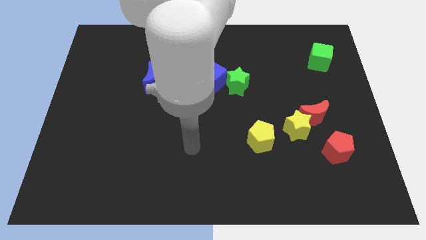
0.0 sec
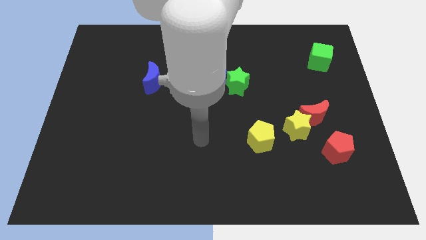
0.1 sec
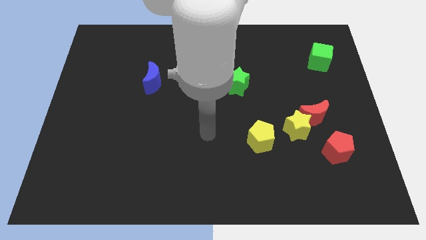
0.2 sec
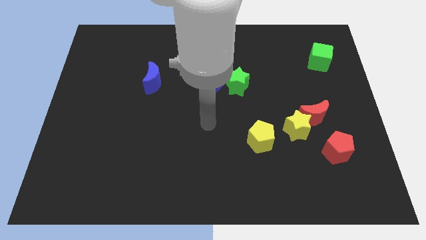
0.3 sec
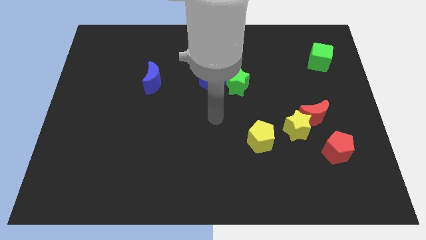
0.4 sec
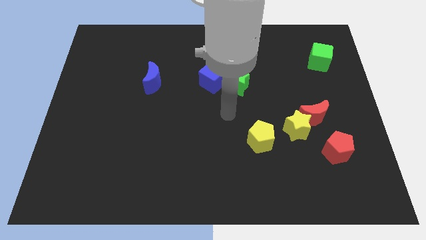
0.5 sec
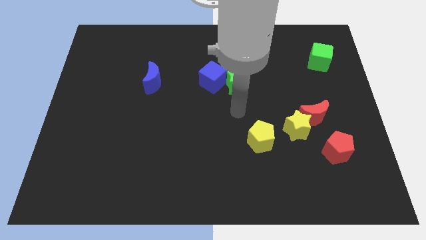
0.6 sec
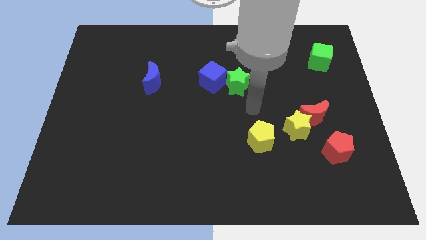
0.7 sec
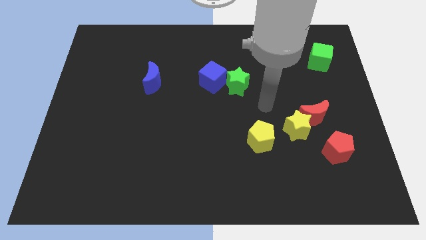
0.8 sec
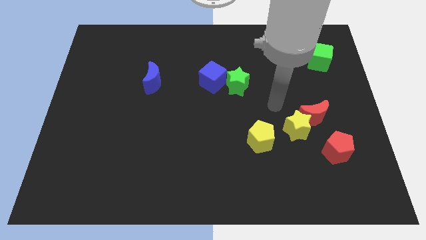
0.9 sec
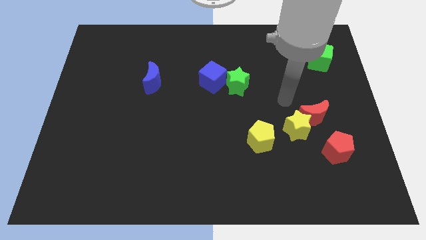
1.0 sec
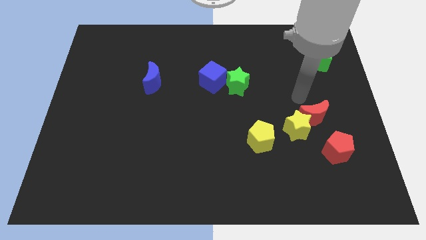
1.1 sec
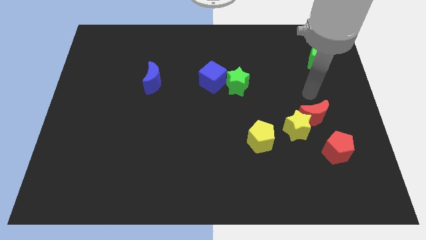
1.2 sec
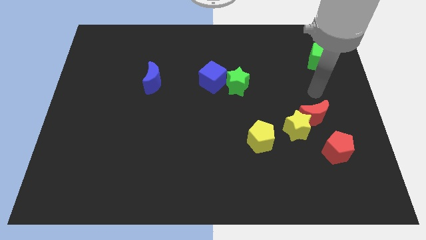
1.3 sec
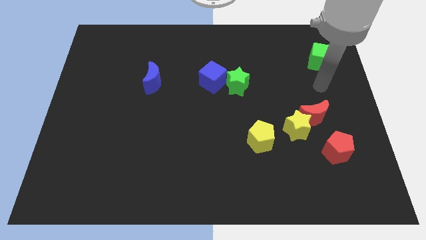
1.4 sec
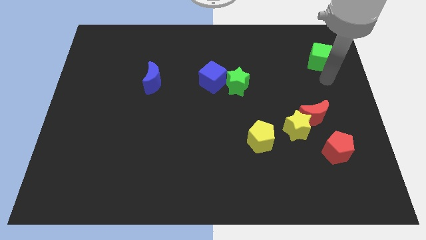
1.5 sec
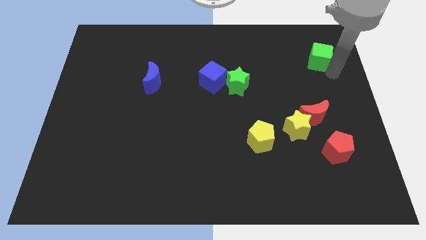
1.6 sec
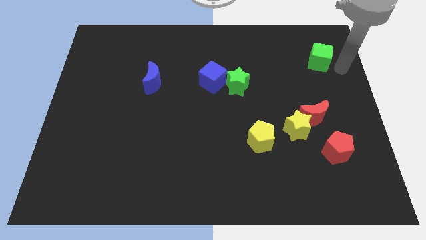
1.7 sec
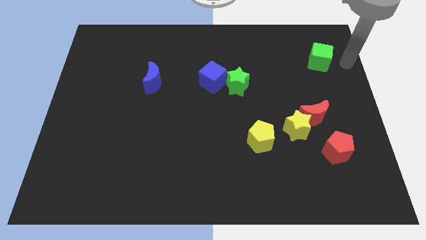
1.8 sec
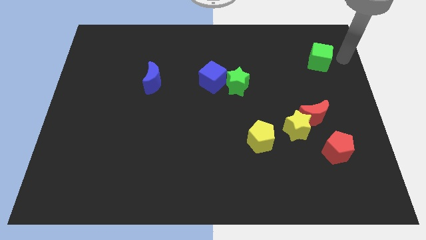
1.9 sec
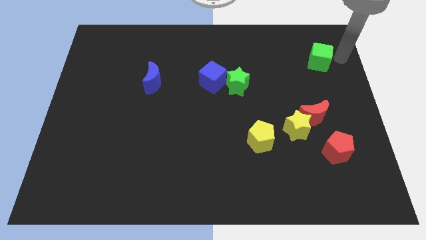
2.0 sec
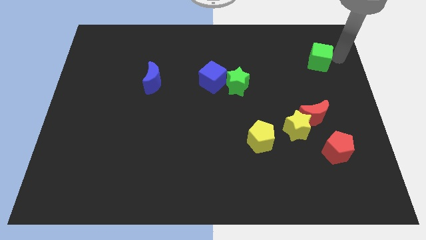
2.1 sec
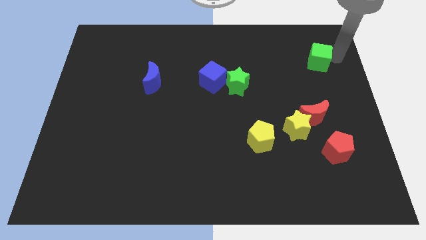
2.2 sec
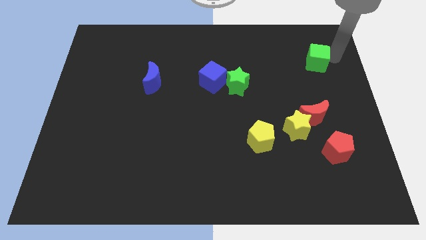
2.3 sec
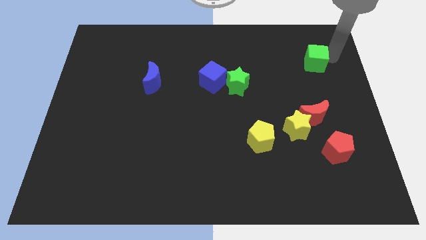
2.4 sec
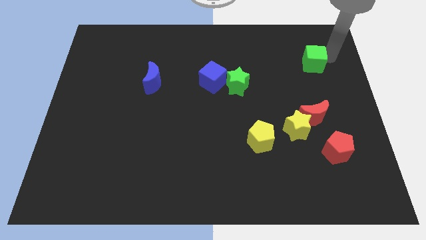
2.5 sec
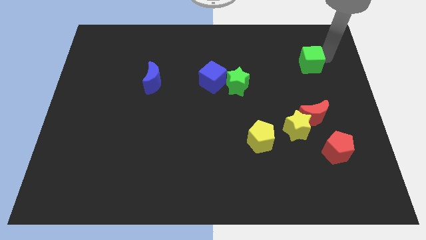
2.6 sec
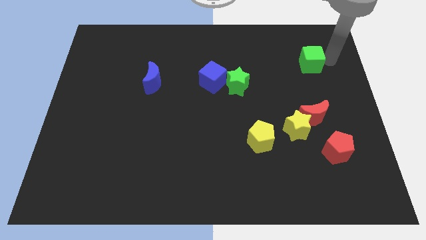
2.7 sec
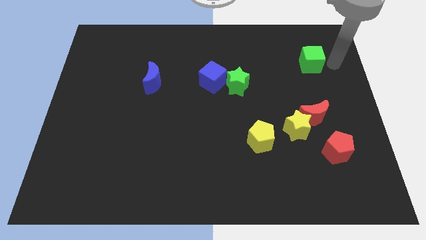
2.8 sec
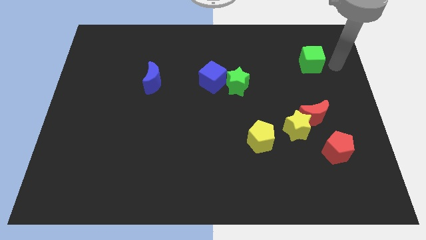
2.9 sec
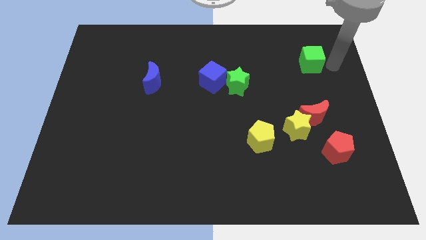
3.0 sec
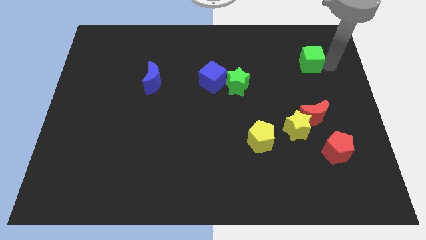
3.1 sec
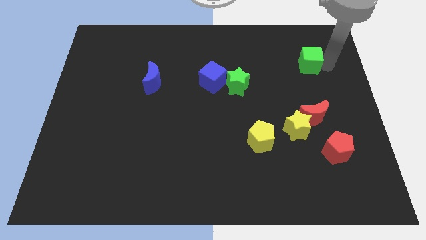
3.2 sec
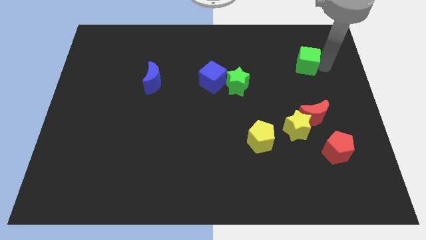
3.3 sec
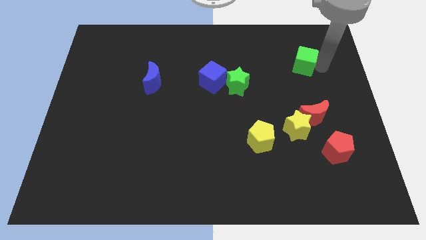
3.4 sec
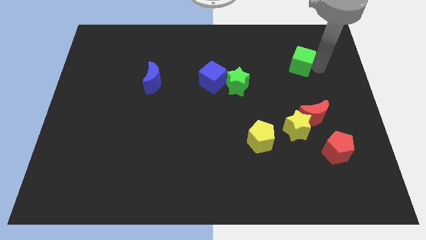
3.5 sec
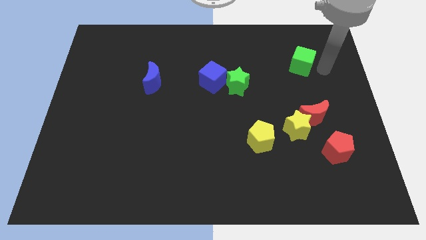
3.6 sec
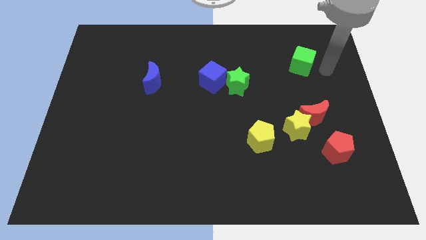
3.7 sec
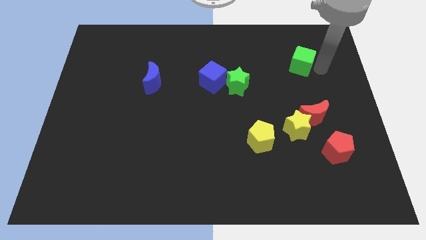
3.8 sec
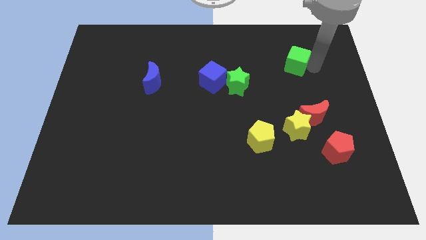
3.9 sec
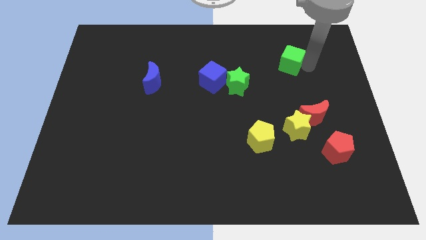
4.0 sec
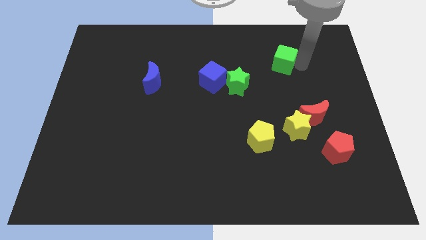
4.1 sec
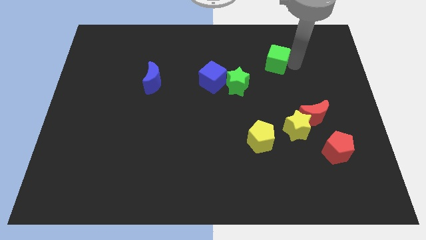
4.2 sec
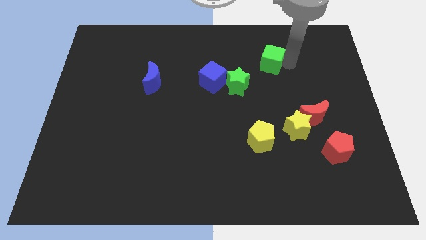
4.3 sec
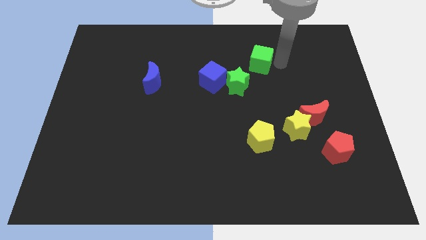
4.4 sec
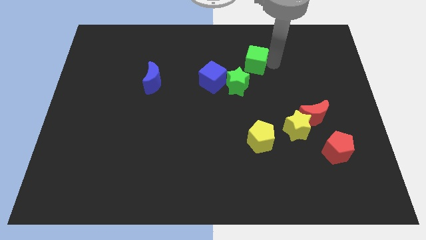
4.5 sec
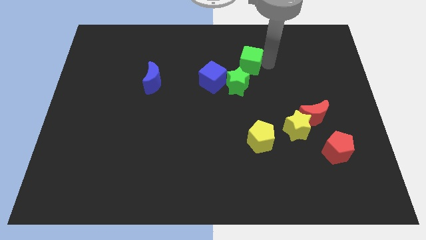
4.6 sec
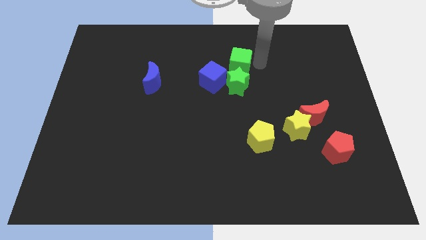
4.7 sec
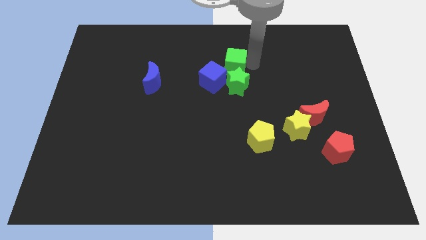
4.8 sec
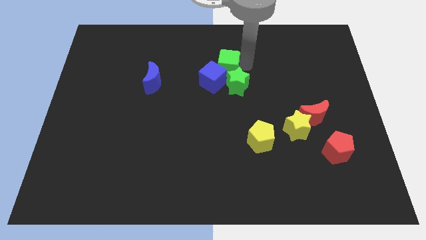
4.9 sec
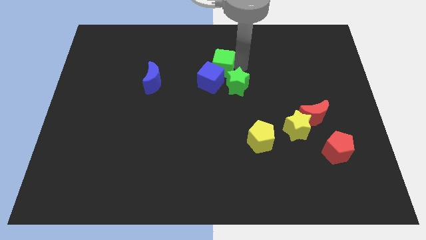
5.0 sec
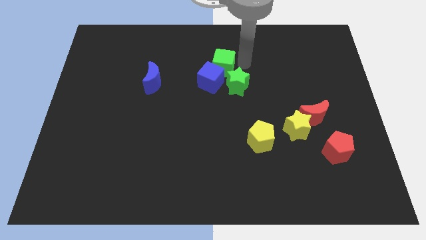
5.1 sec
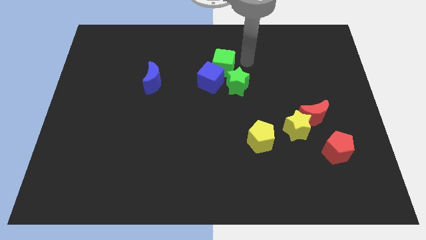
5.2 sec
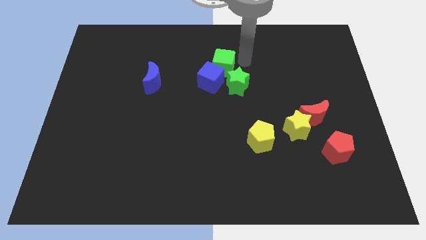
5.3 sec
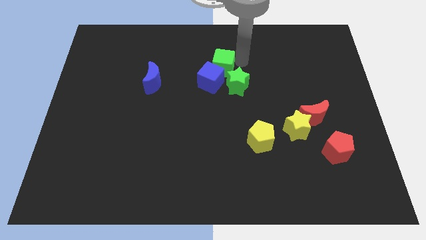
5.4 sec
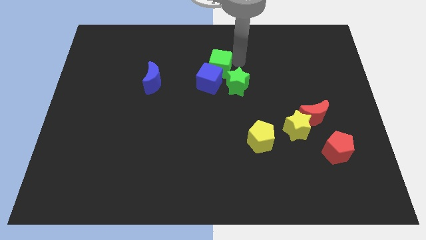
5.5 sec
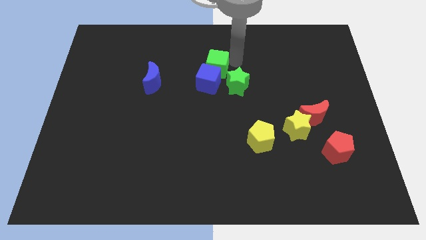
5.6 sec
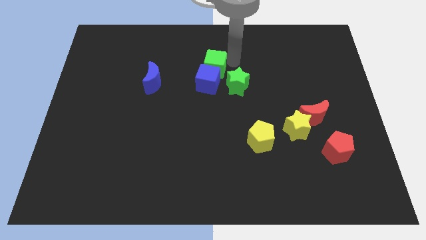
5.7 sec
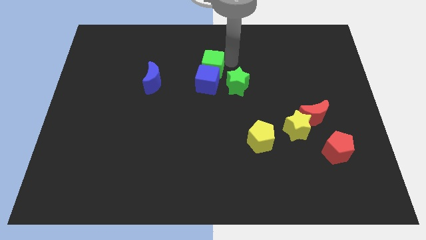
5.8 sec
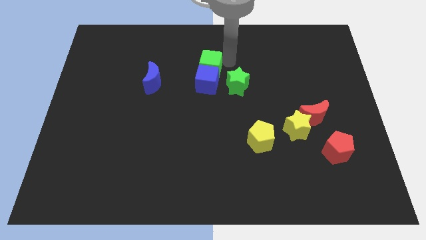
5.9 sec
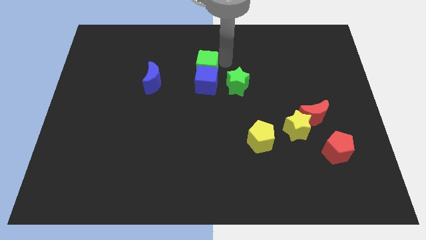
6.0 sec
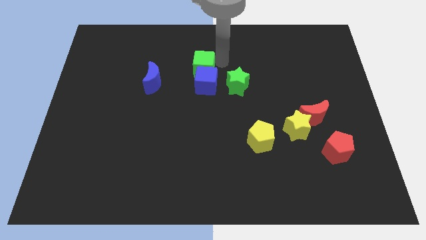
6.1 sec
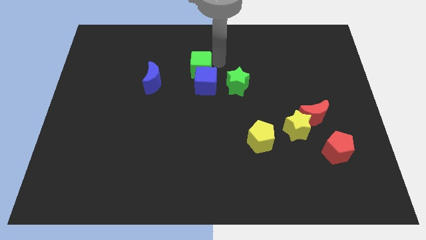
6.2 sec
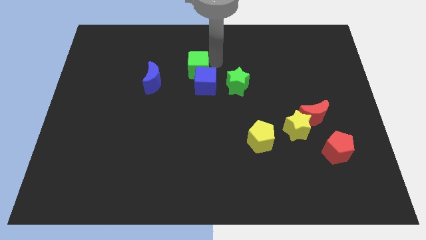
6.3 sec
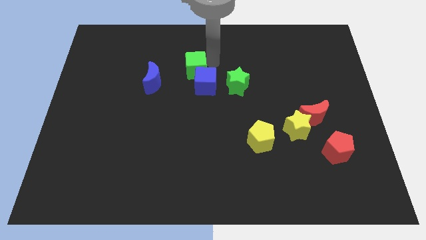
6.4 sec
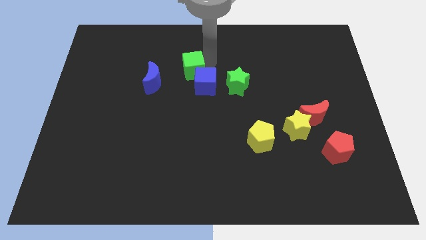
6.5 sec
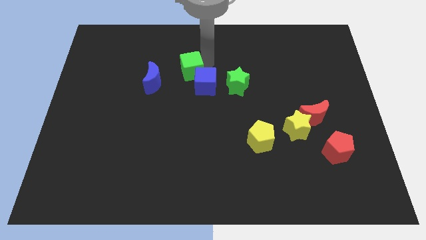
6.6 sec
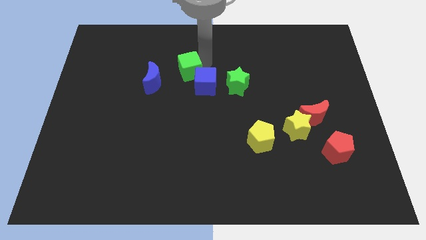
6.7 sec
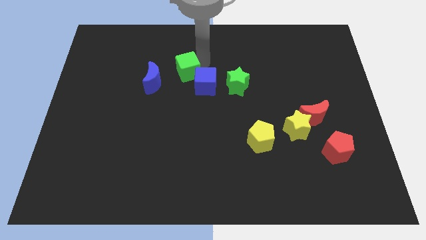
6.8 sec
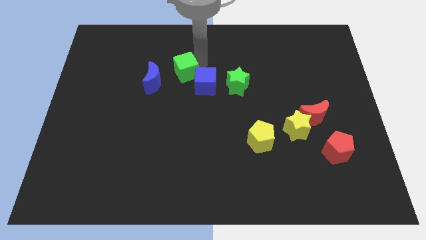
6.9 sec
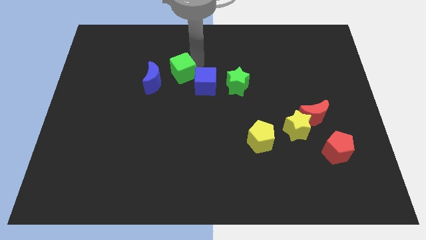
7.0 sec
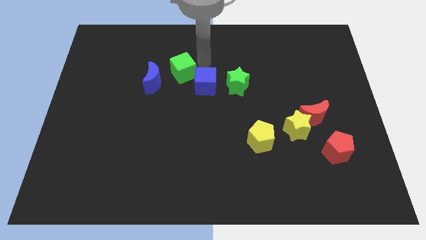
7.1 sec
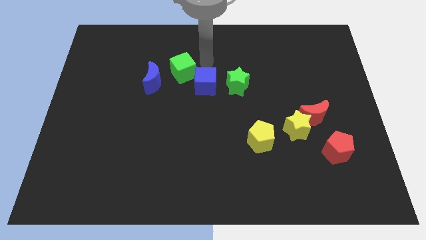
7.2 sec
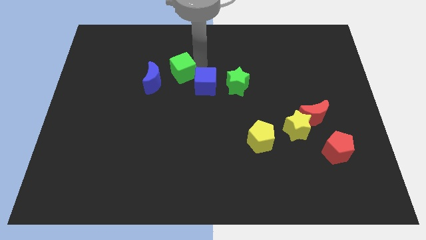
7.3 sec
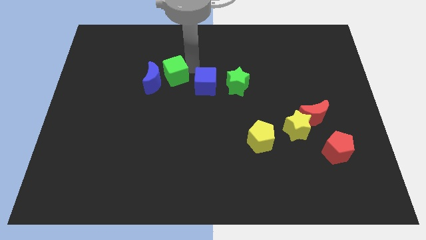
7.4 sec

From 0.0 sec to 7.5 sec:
push the green cube next to the blue moon
